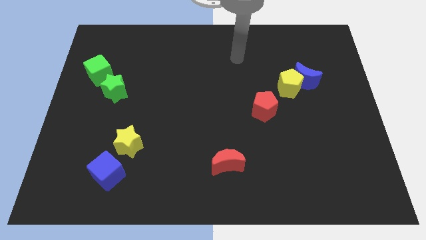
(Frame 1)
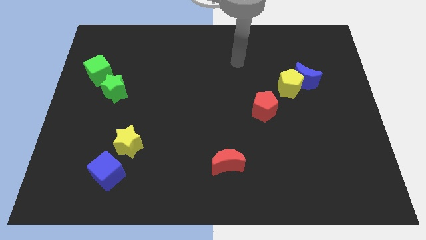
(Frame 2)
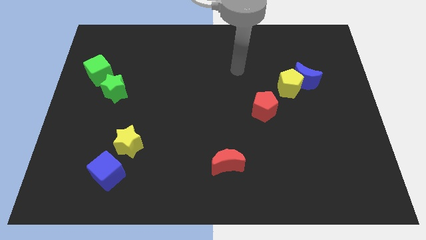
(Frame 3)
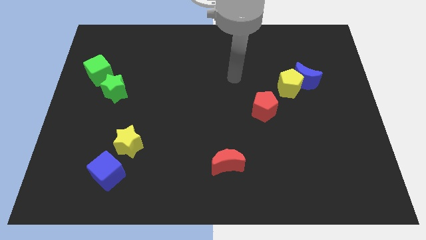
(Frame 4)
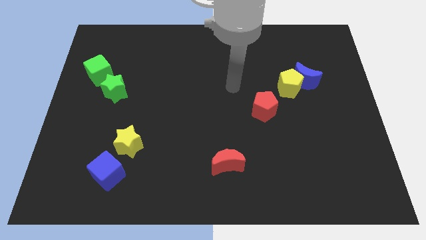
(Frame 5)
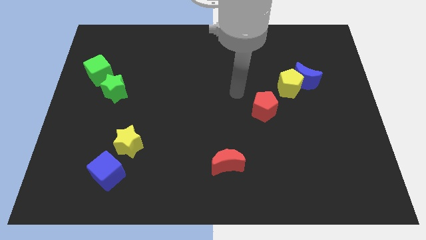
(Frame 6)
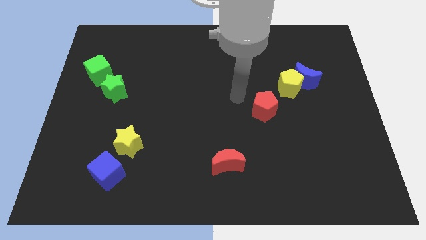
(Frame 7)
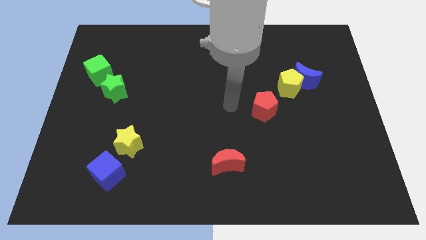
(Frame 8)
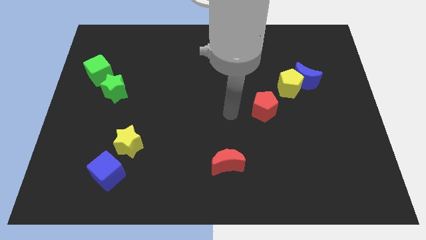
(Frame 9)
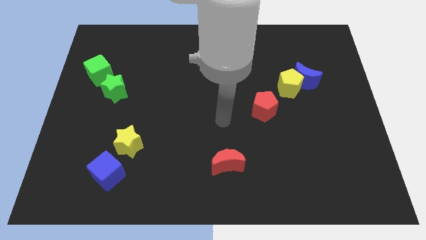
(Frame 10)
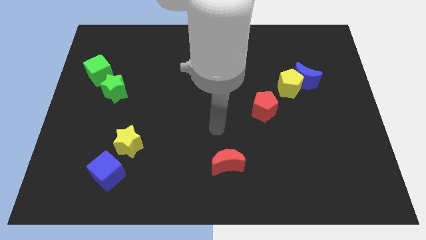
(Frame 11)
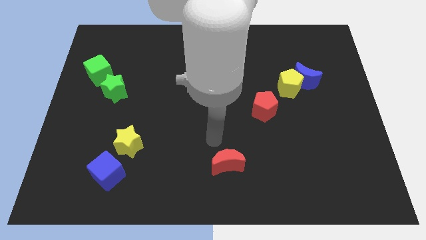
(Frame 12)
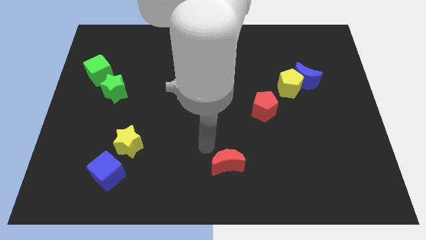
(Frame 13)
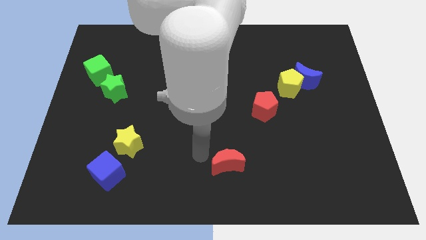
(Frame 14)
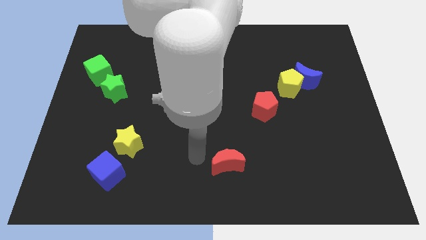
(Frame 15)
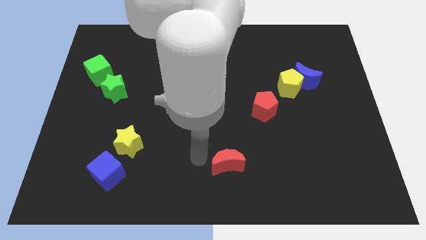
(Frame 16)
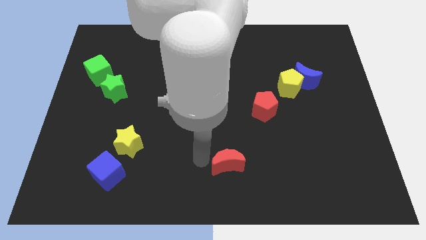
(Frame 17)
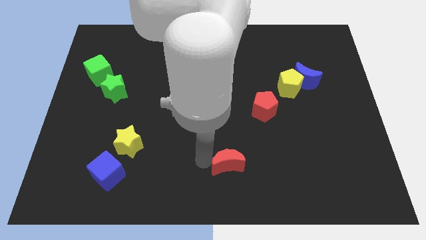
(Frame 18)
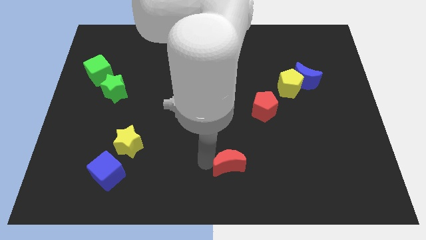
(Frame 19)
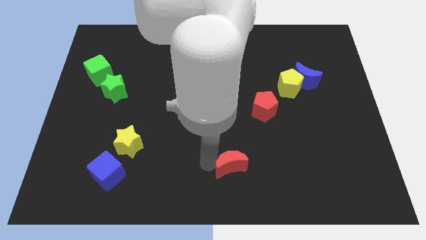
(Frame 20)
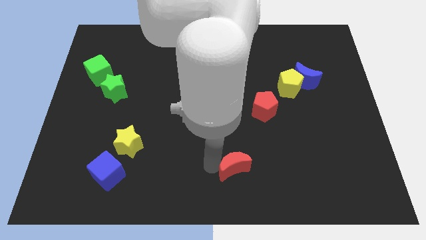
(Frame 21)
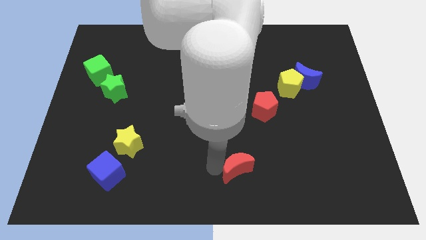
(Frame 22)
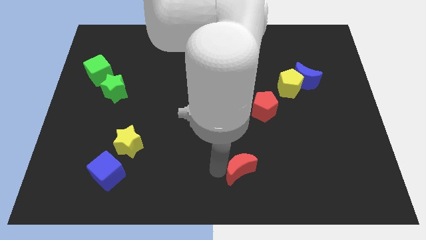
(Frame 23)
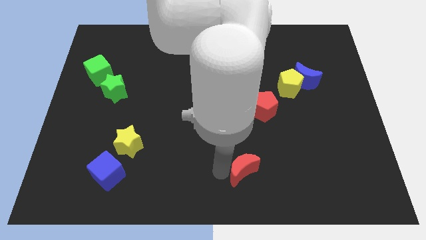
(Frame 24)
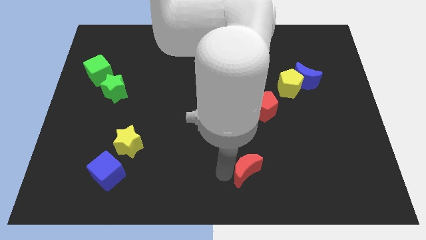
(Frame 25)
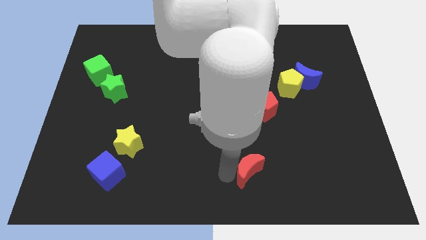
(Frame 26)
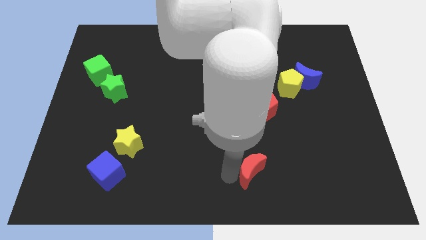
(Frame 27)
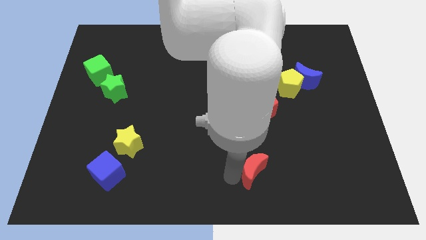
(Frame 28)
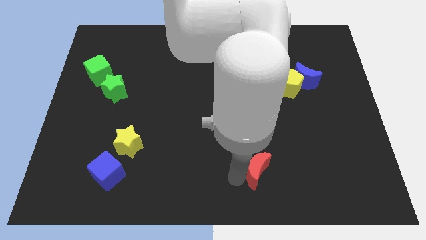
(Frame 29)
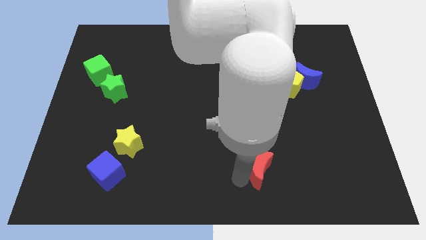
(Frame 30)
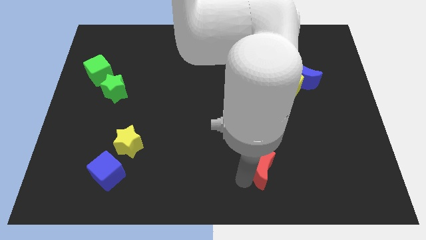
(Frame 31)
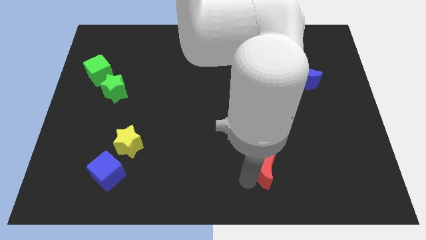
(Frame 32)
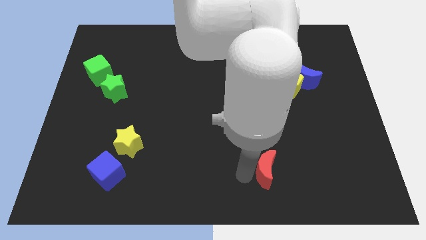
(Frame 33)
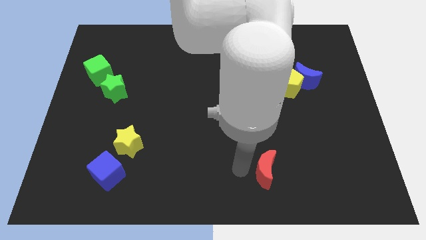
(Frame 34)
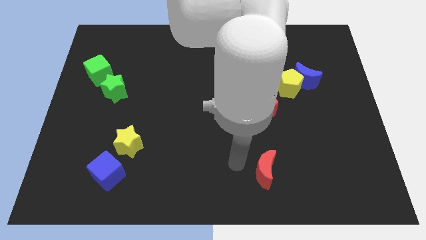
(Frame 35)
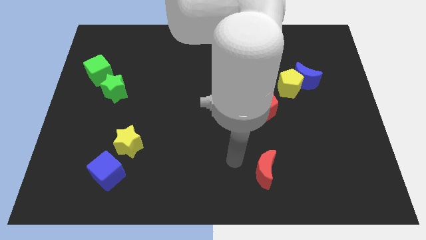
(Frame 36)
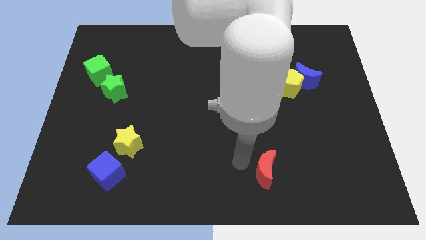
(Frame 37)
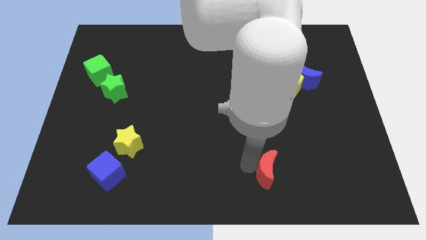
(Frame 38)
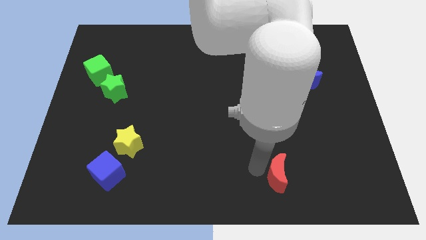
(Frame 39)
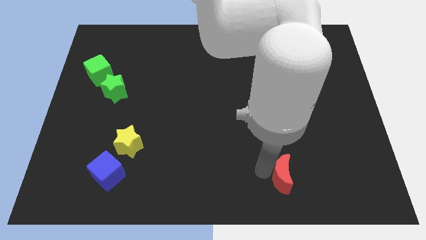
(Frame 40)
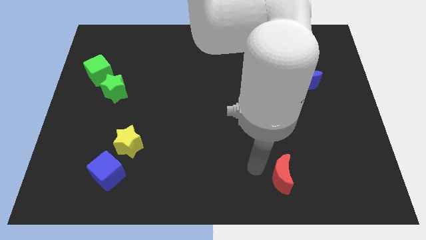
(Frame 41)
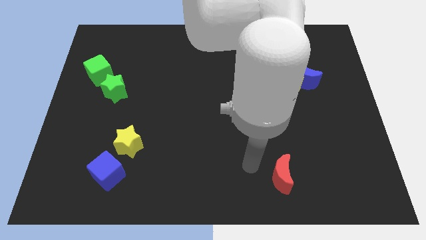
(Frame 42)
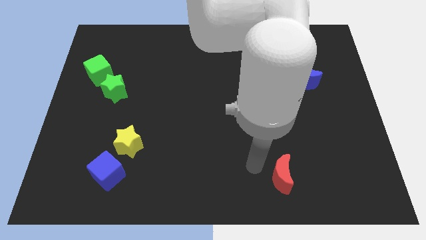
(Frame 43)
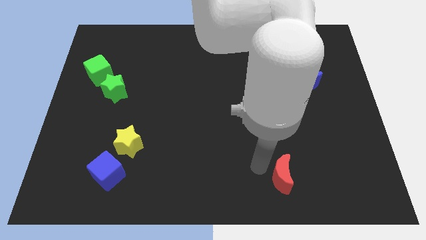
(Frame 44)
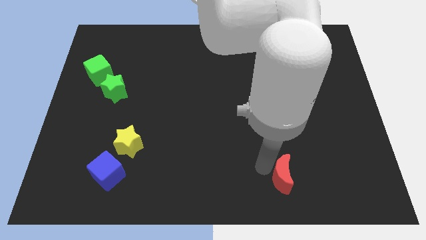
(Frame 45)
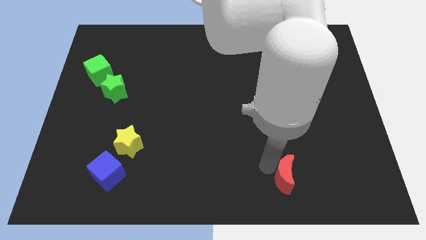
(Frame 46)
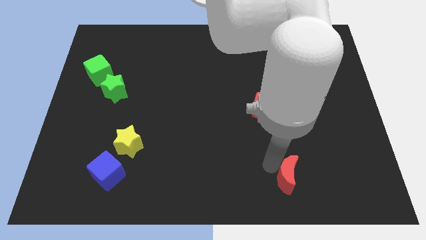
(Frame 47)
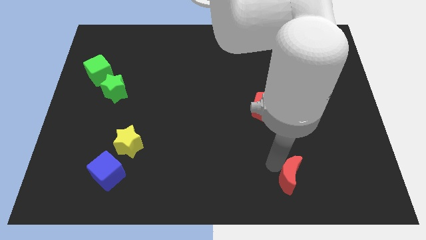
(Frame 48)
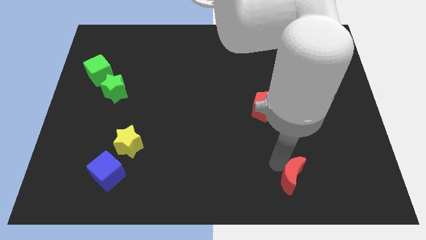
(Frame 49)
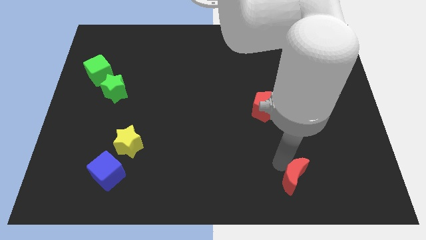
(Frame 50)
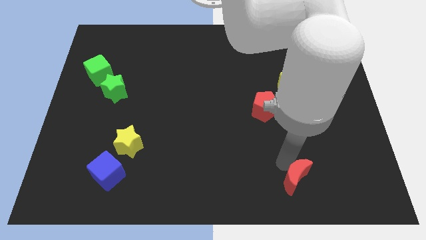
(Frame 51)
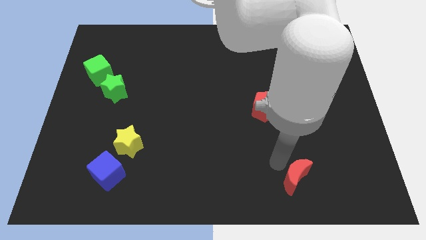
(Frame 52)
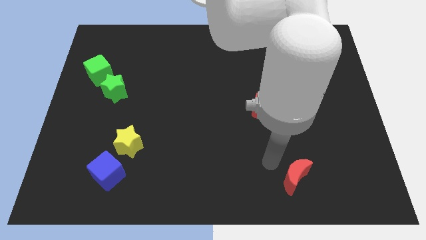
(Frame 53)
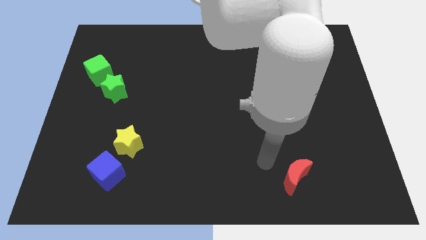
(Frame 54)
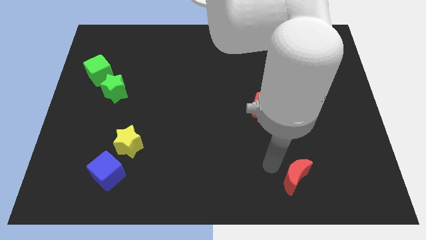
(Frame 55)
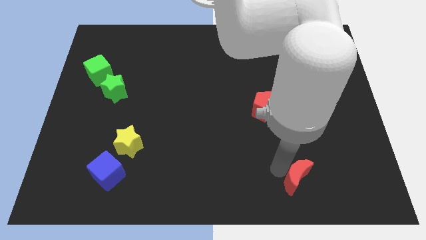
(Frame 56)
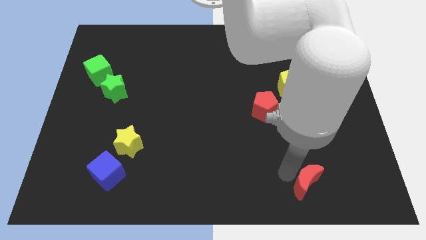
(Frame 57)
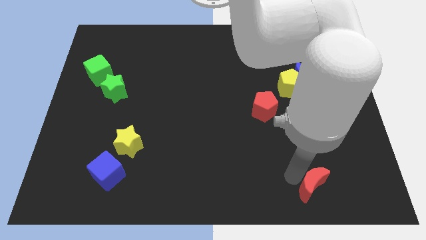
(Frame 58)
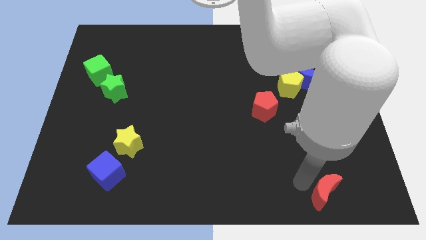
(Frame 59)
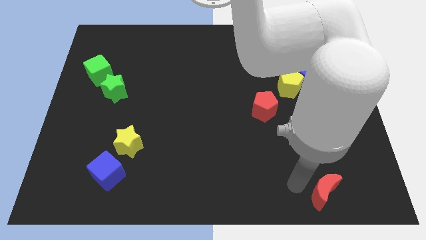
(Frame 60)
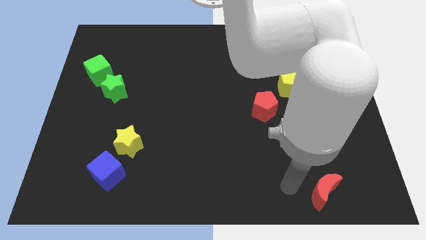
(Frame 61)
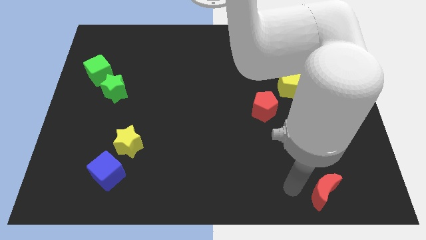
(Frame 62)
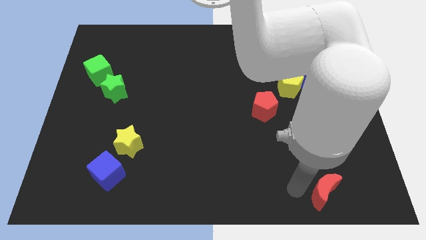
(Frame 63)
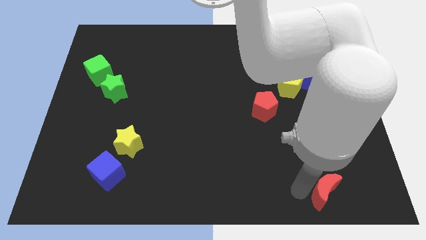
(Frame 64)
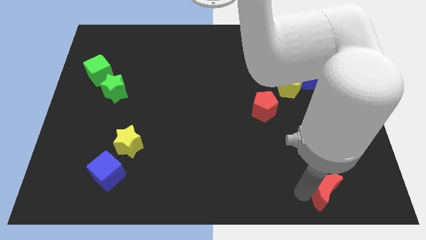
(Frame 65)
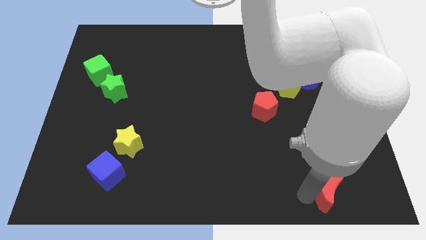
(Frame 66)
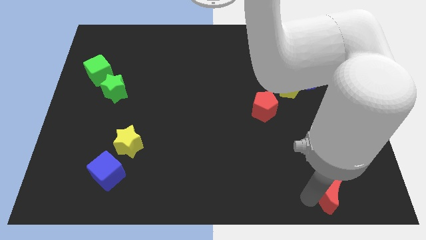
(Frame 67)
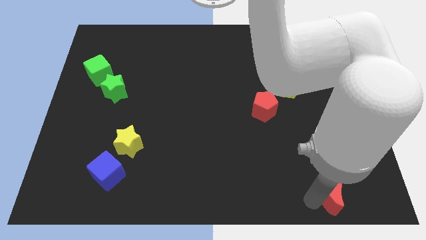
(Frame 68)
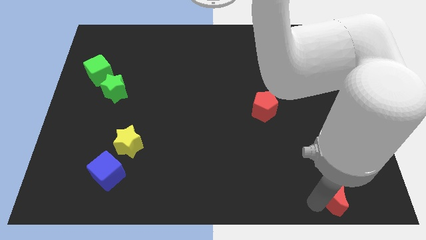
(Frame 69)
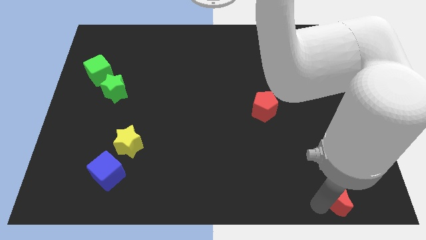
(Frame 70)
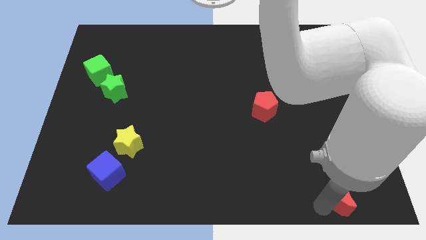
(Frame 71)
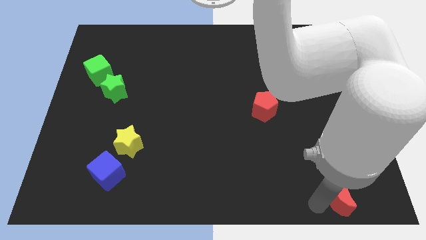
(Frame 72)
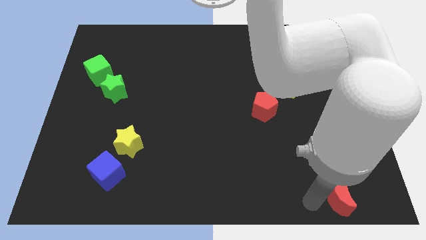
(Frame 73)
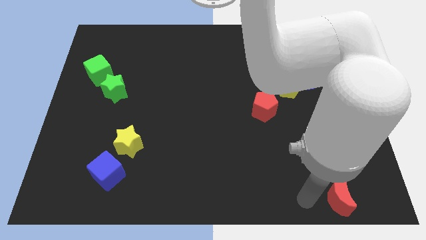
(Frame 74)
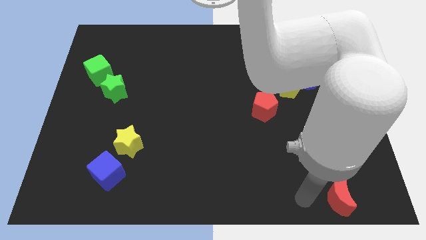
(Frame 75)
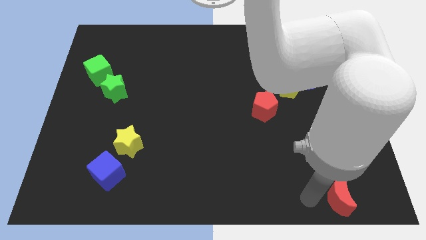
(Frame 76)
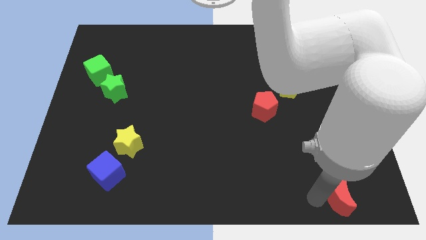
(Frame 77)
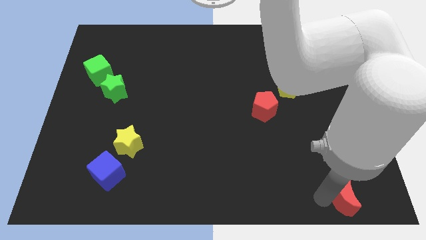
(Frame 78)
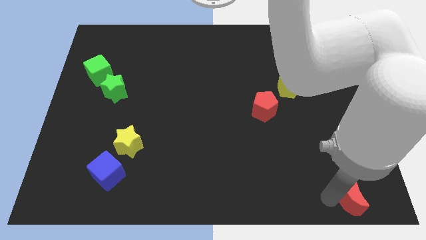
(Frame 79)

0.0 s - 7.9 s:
move the red moon to the bottom right
